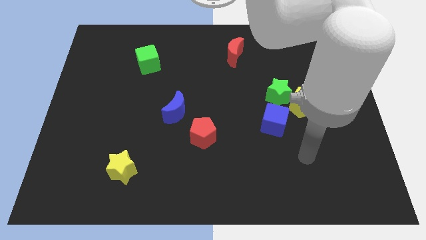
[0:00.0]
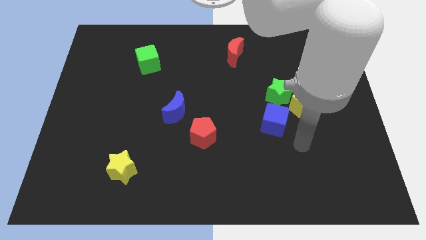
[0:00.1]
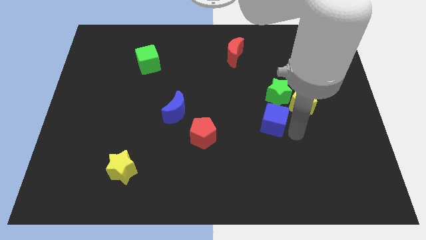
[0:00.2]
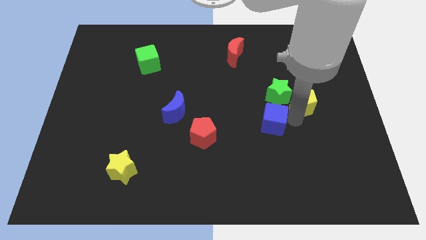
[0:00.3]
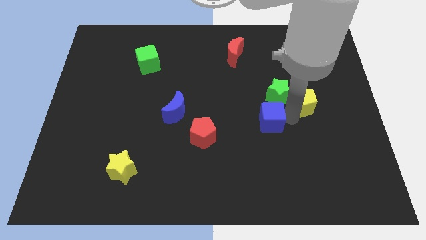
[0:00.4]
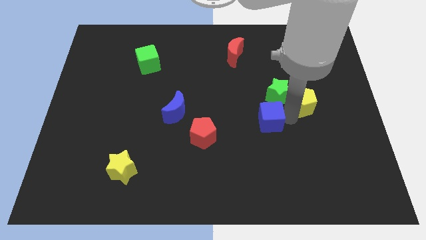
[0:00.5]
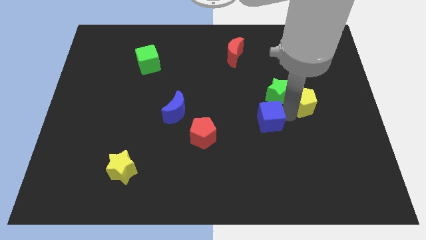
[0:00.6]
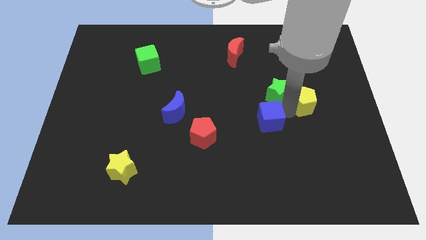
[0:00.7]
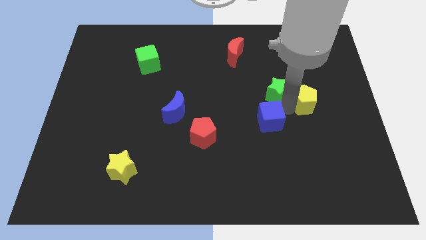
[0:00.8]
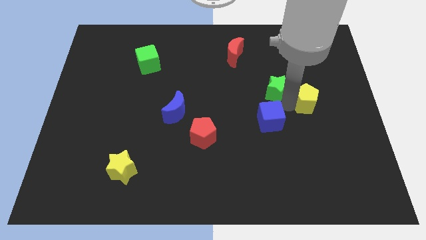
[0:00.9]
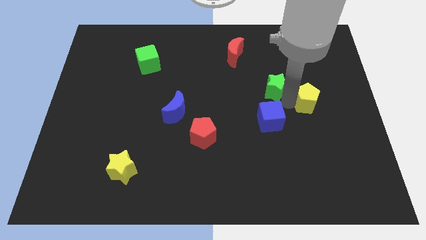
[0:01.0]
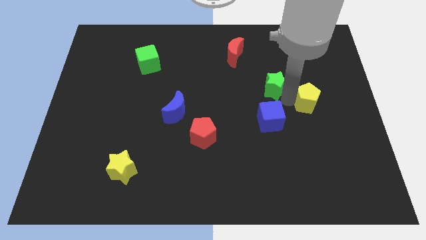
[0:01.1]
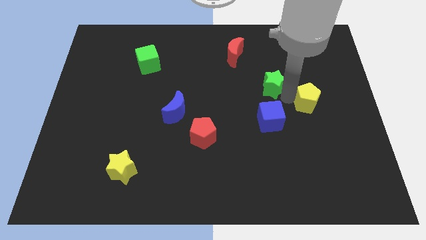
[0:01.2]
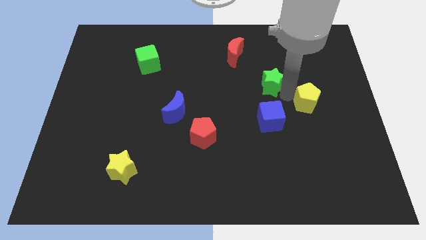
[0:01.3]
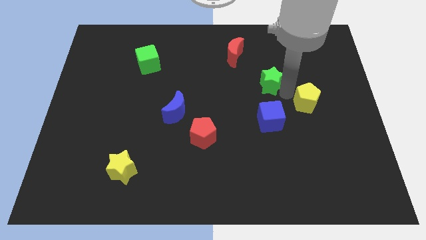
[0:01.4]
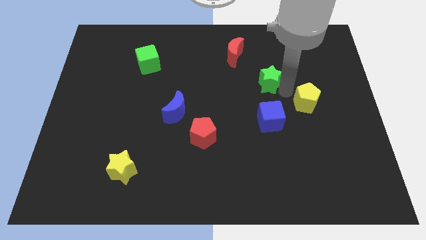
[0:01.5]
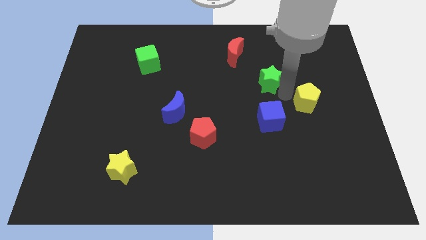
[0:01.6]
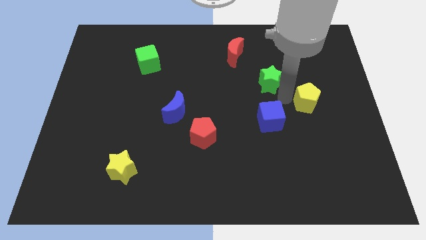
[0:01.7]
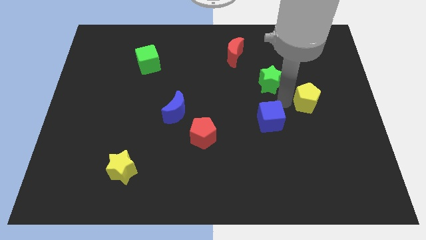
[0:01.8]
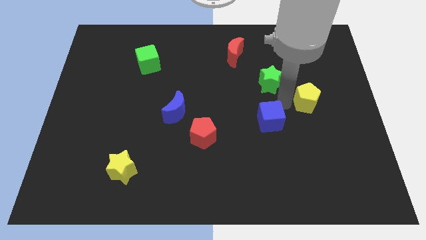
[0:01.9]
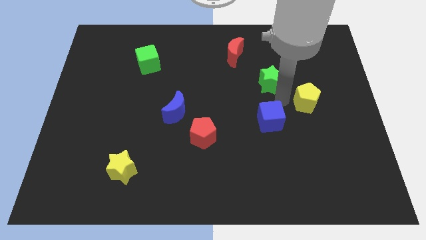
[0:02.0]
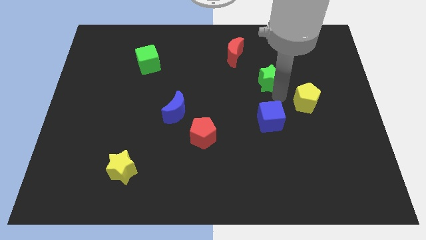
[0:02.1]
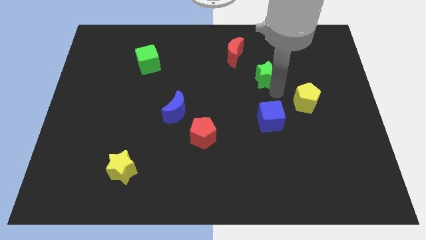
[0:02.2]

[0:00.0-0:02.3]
move the green star away from the yellow pentagon and blue cube

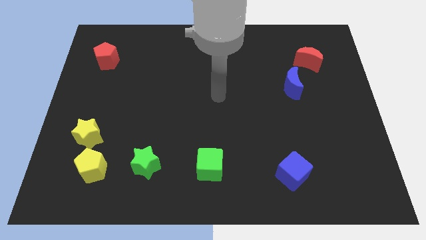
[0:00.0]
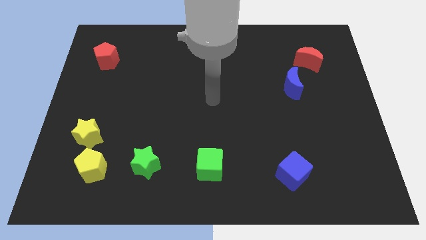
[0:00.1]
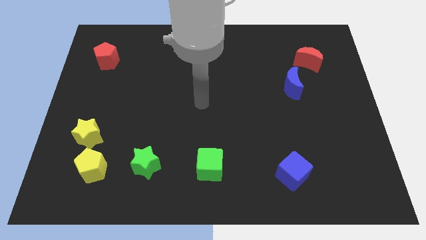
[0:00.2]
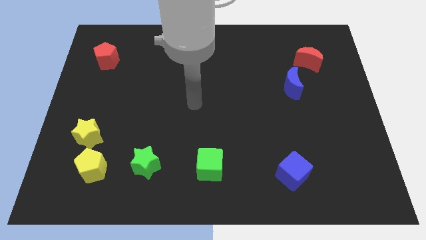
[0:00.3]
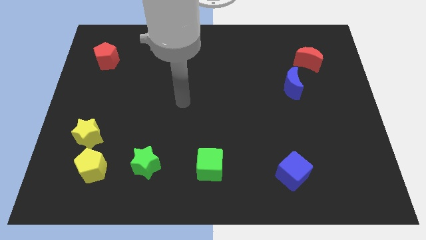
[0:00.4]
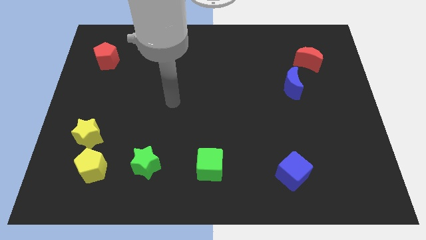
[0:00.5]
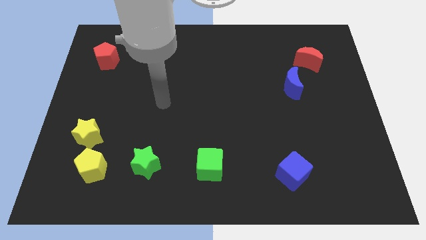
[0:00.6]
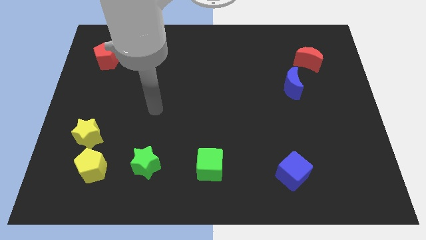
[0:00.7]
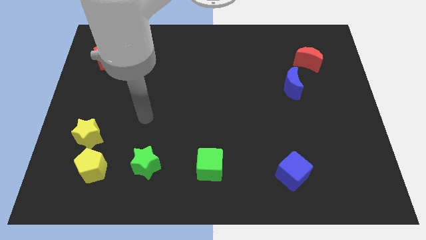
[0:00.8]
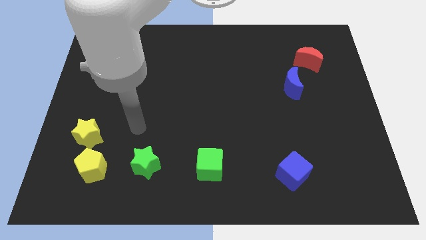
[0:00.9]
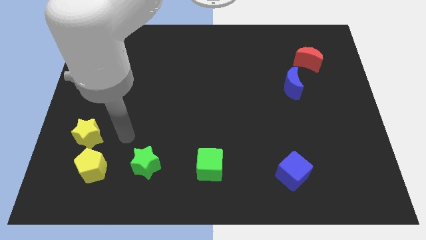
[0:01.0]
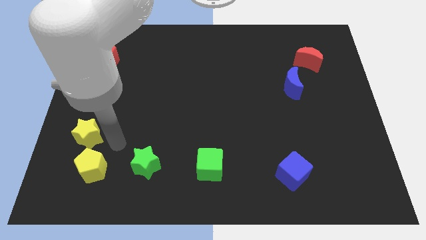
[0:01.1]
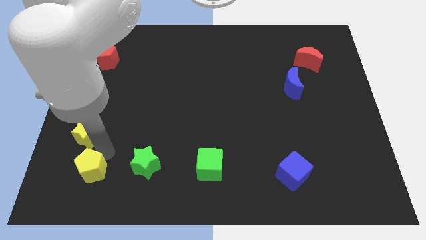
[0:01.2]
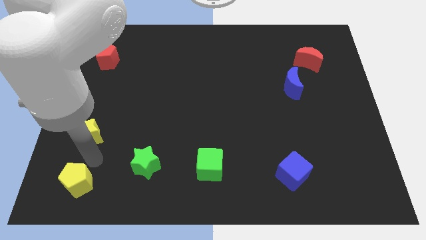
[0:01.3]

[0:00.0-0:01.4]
separate the yellow star from the yellow pentagon

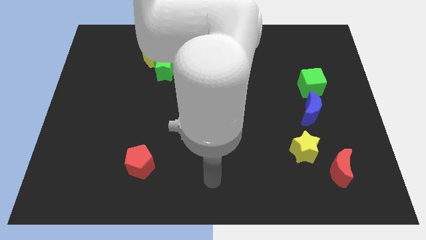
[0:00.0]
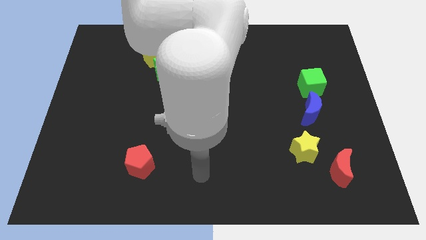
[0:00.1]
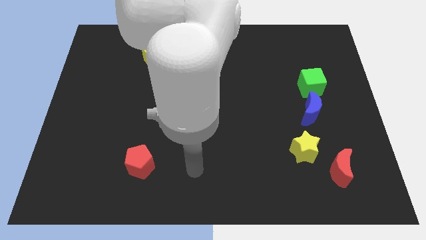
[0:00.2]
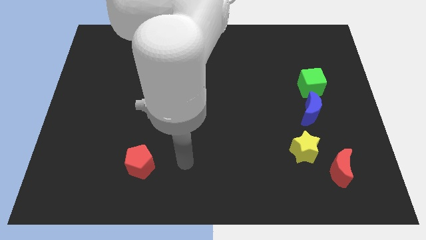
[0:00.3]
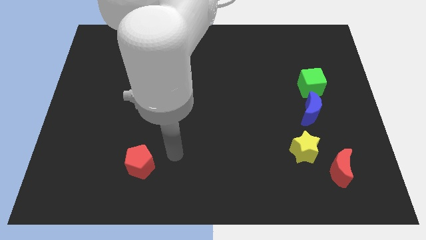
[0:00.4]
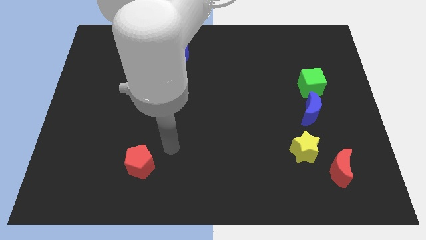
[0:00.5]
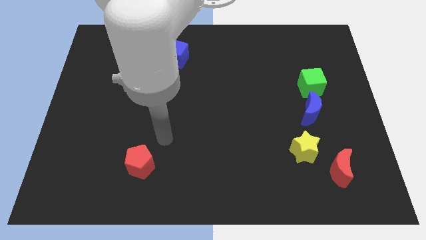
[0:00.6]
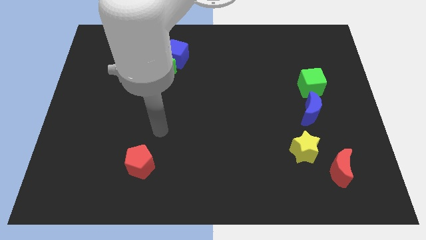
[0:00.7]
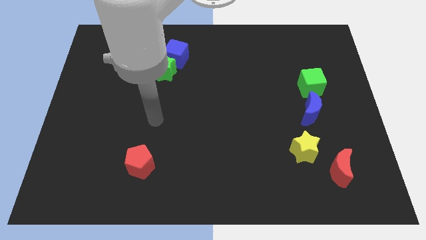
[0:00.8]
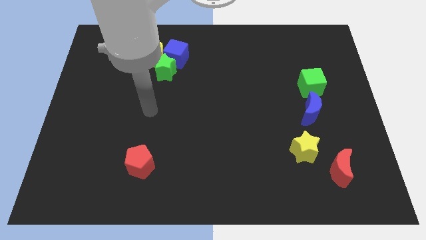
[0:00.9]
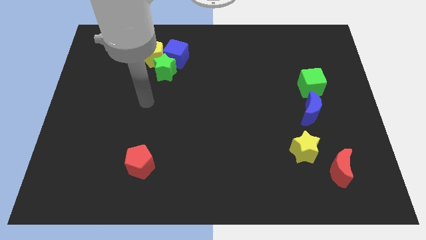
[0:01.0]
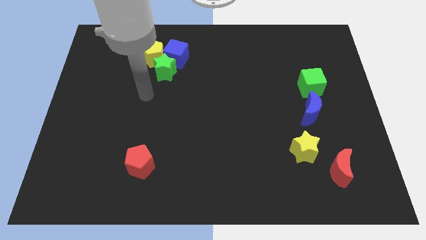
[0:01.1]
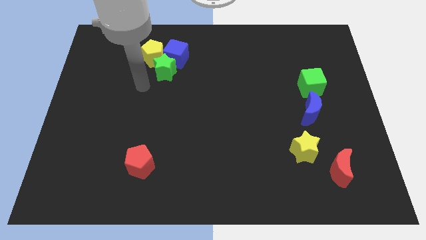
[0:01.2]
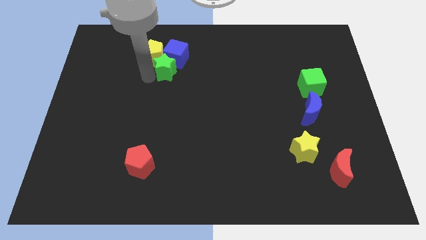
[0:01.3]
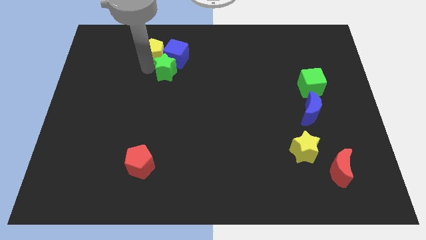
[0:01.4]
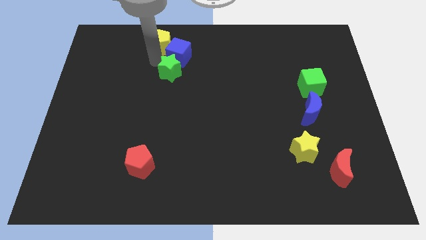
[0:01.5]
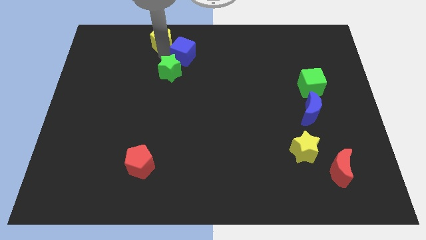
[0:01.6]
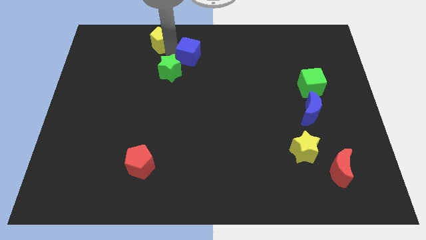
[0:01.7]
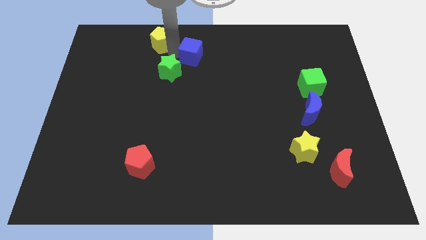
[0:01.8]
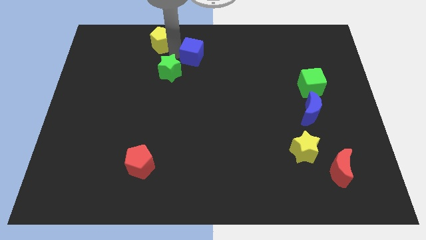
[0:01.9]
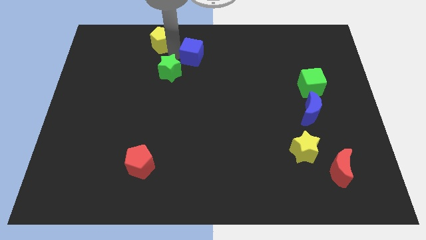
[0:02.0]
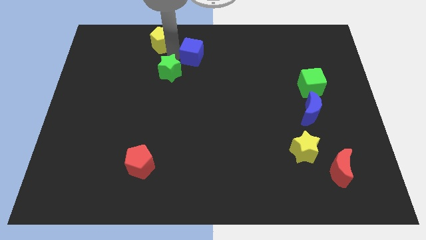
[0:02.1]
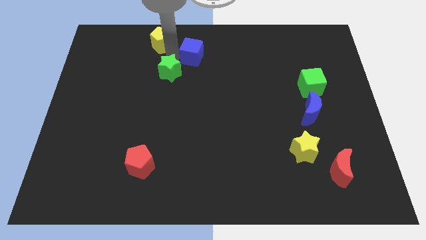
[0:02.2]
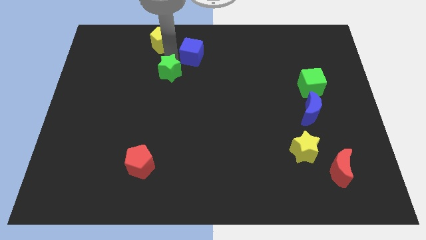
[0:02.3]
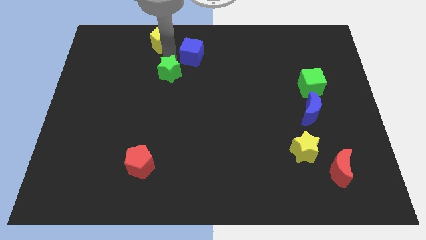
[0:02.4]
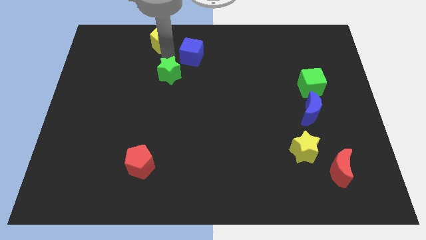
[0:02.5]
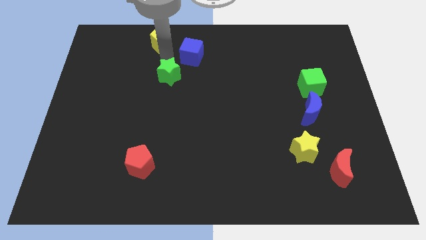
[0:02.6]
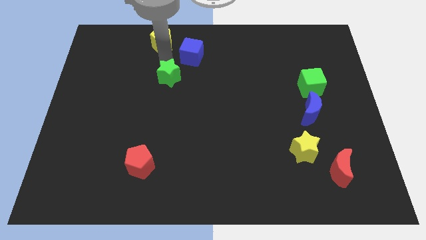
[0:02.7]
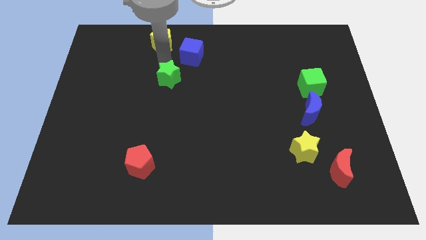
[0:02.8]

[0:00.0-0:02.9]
move the green star away from the blue cube and yellow pentagon

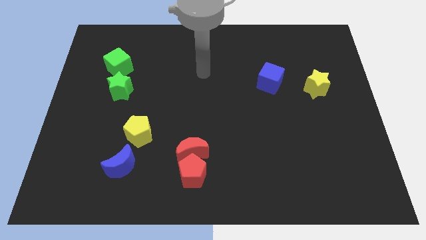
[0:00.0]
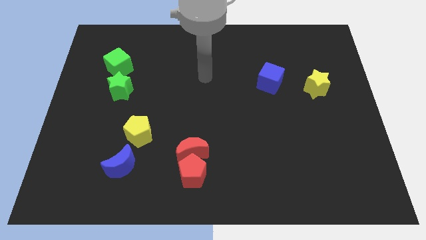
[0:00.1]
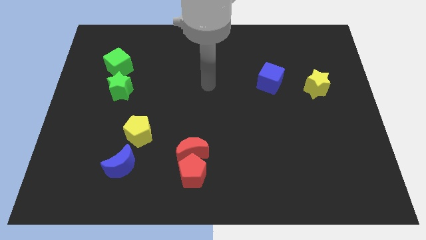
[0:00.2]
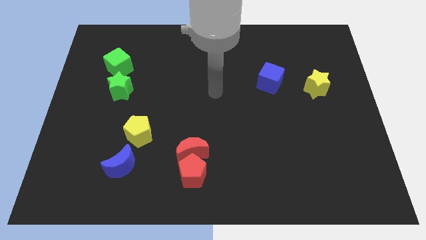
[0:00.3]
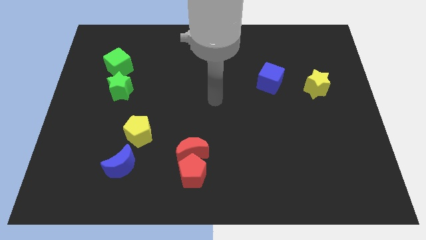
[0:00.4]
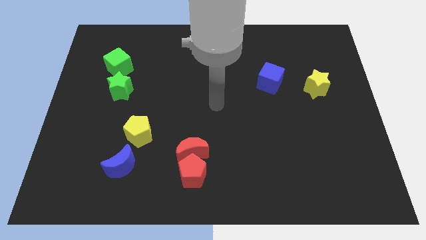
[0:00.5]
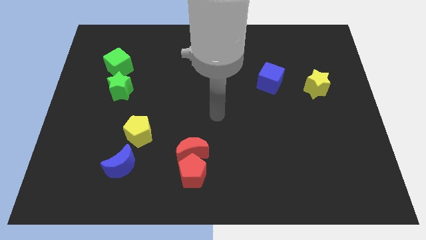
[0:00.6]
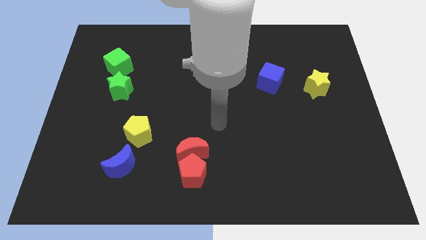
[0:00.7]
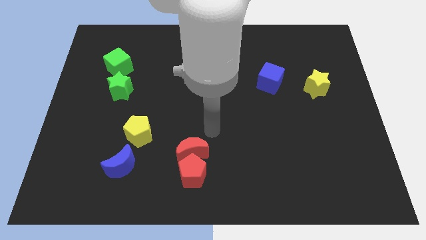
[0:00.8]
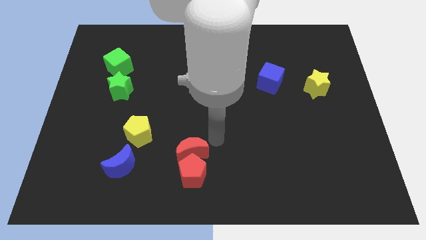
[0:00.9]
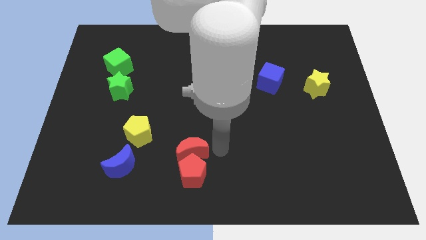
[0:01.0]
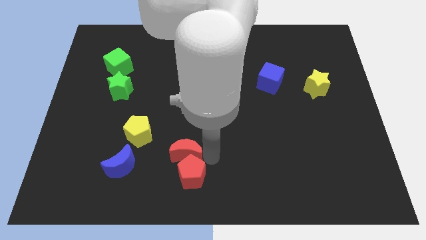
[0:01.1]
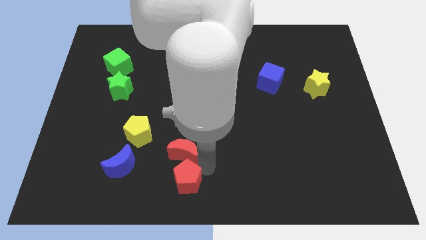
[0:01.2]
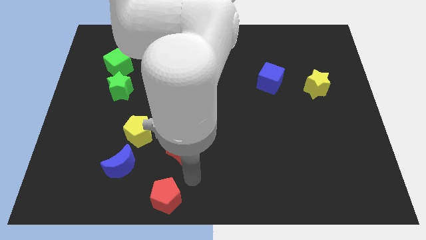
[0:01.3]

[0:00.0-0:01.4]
pull the red moon apart from the red pentagon

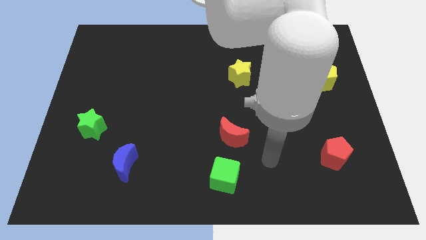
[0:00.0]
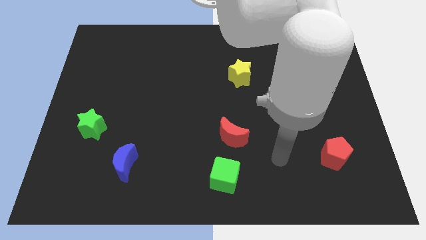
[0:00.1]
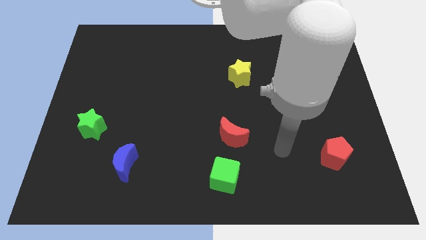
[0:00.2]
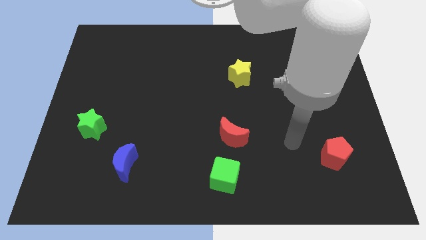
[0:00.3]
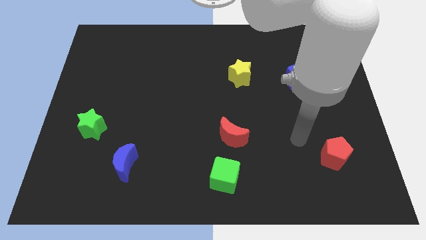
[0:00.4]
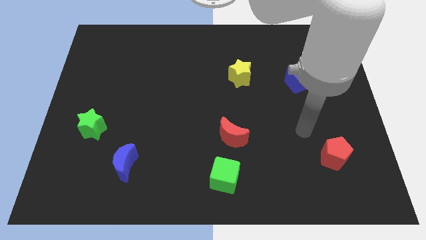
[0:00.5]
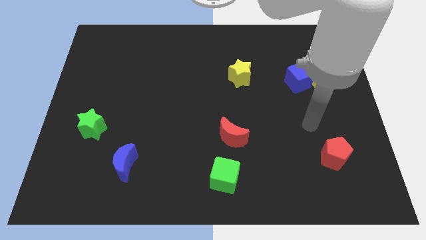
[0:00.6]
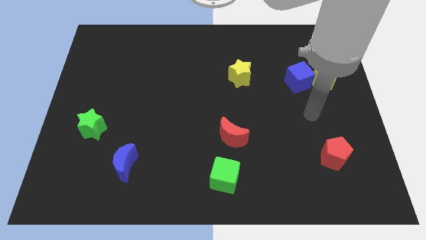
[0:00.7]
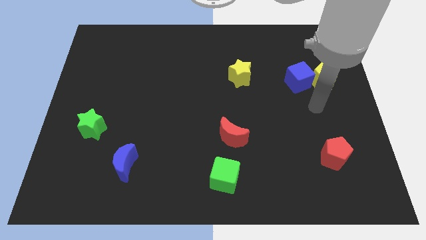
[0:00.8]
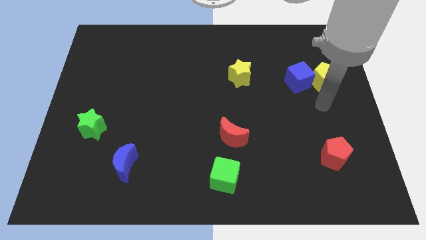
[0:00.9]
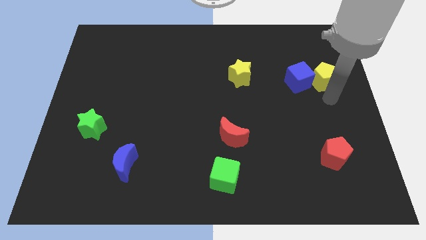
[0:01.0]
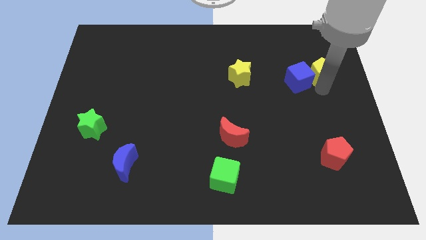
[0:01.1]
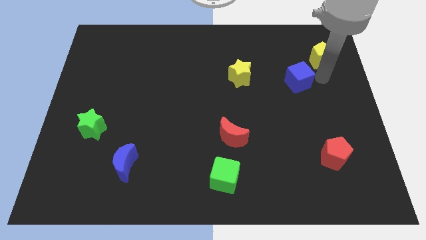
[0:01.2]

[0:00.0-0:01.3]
move the blue cube away from the yellow pentagon
